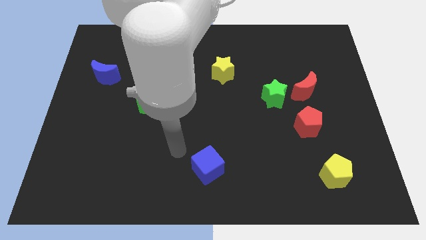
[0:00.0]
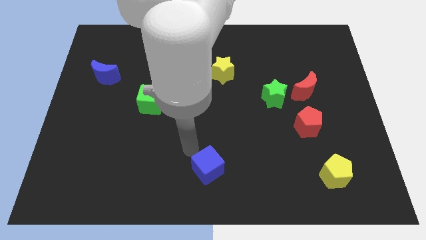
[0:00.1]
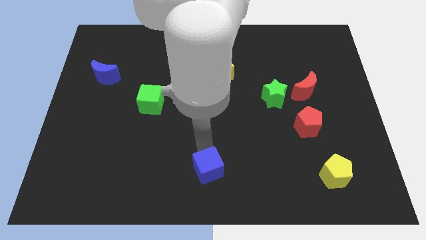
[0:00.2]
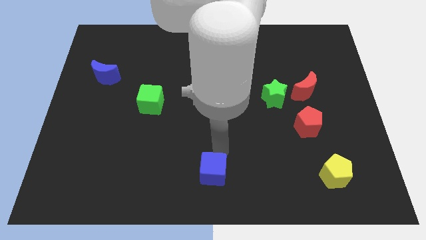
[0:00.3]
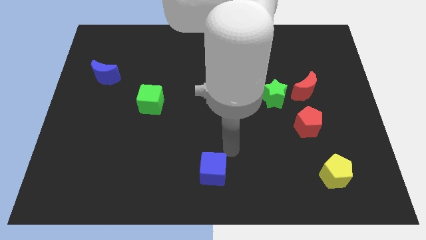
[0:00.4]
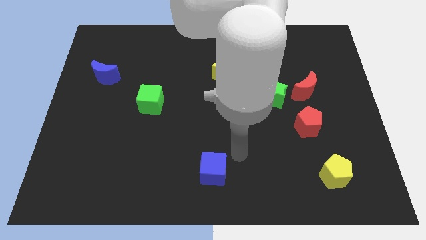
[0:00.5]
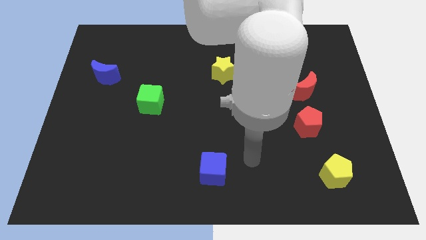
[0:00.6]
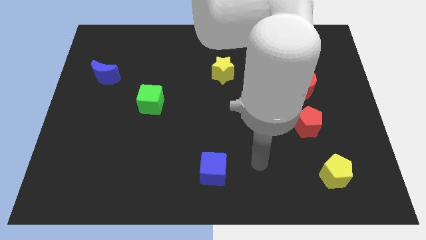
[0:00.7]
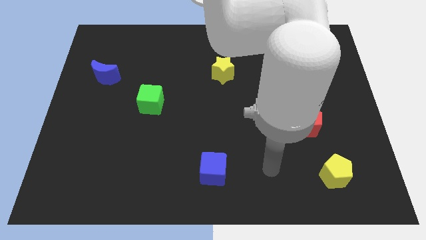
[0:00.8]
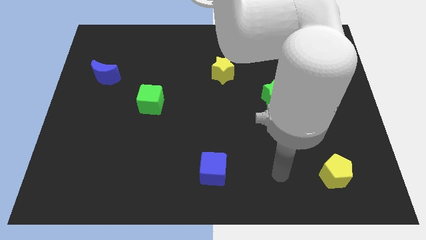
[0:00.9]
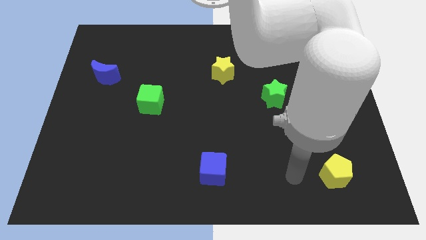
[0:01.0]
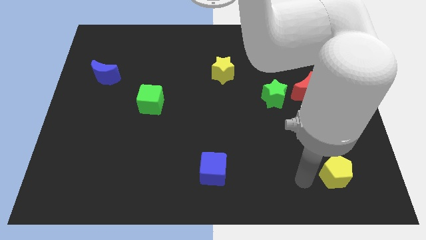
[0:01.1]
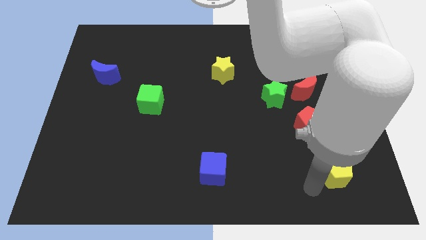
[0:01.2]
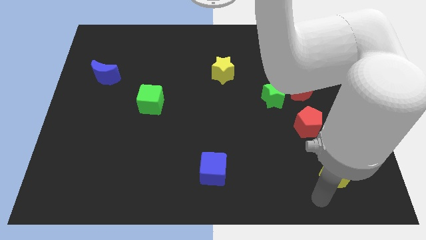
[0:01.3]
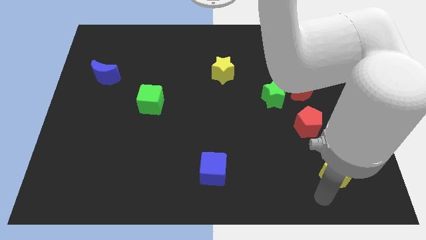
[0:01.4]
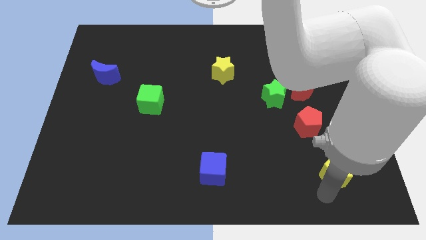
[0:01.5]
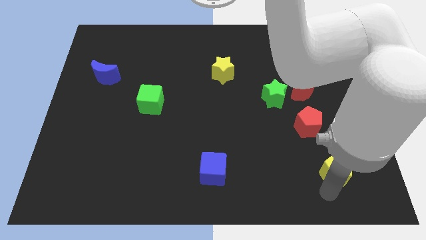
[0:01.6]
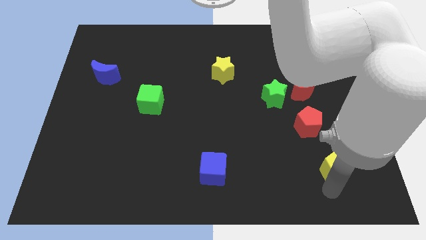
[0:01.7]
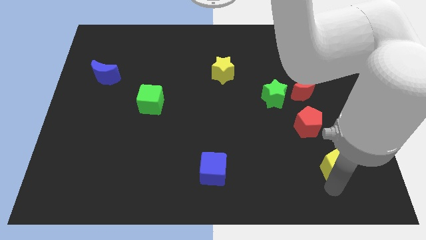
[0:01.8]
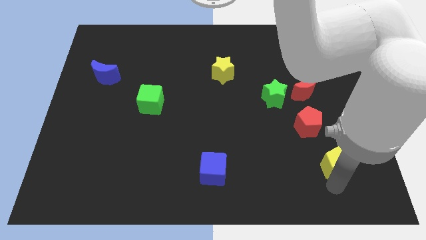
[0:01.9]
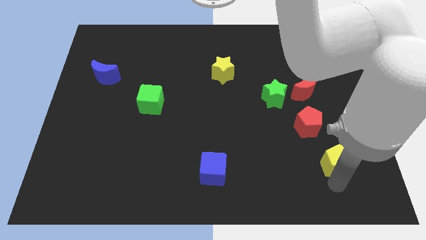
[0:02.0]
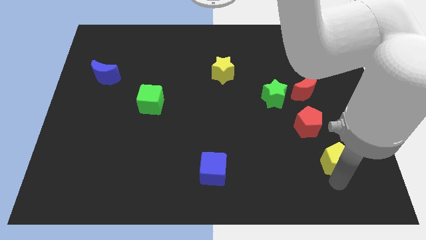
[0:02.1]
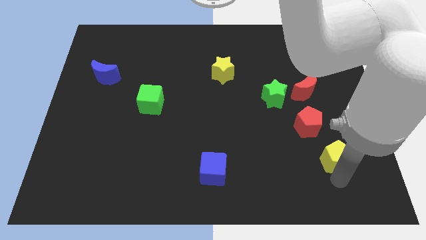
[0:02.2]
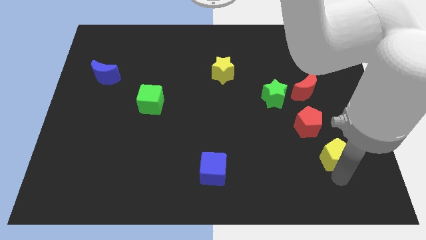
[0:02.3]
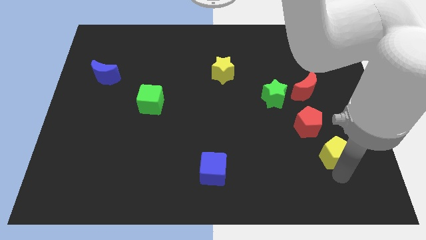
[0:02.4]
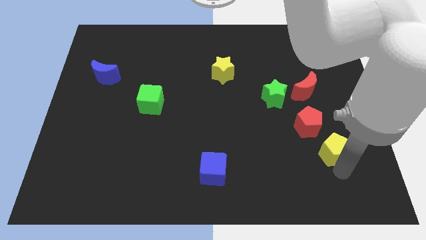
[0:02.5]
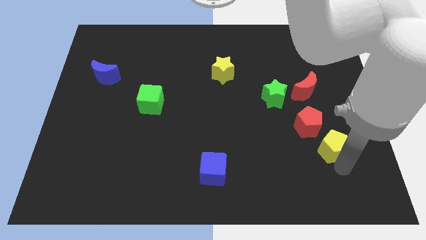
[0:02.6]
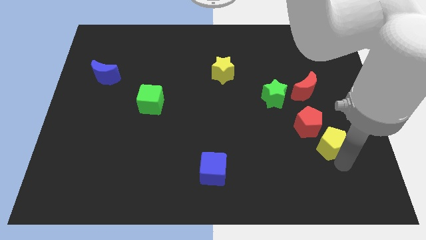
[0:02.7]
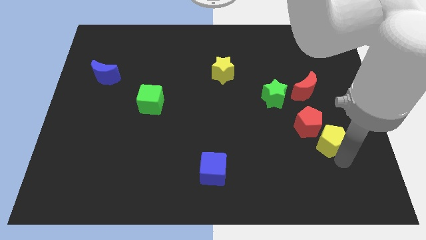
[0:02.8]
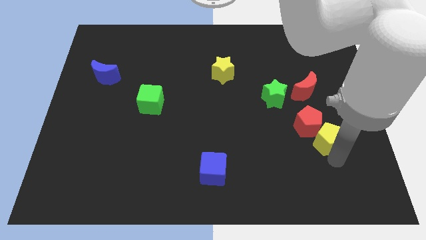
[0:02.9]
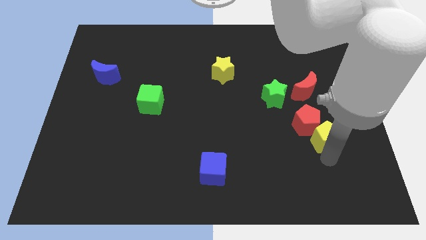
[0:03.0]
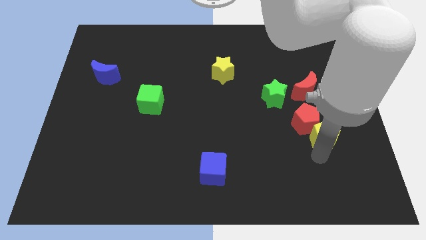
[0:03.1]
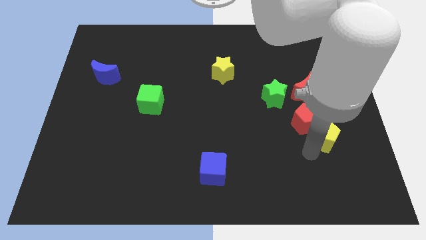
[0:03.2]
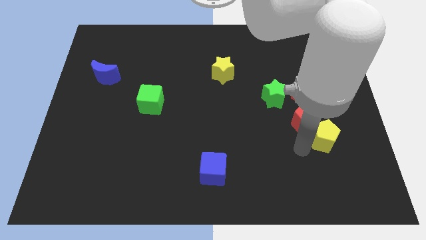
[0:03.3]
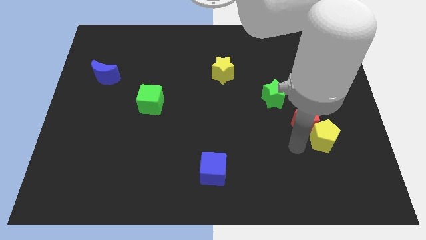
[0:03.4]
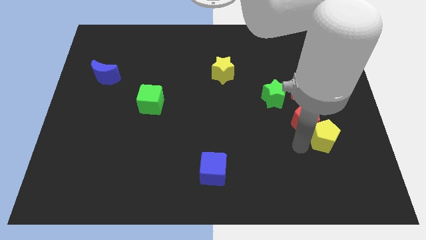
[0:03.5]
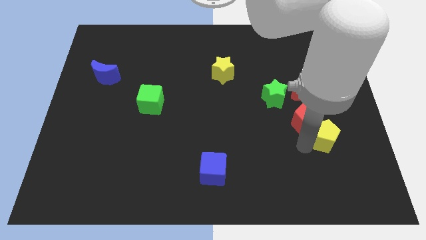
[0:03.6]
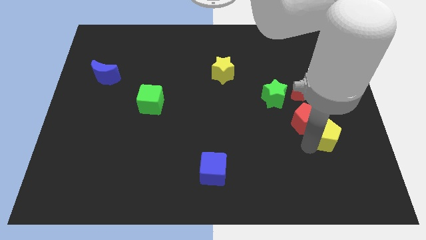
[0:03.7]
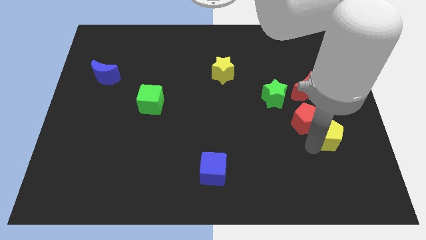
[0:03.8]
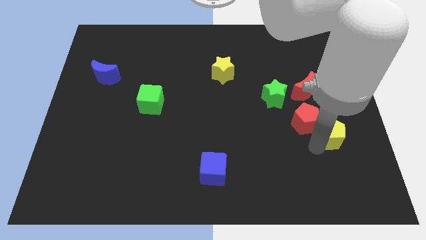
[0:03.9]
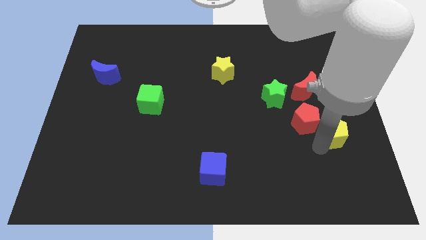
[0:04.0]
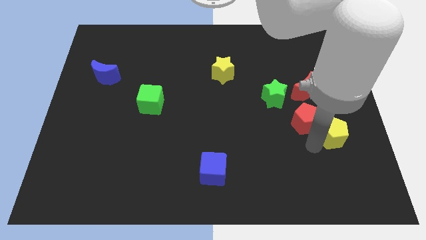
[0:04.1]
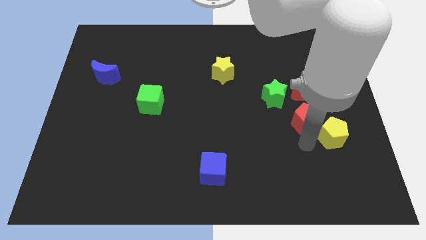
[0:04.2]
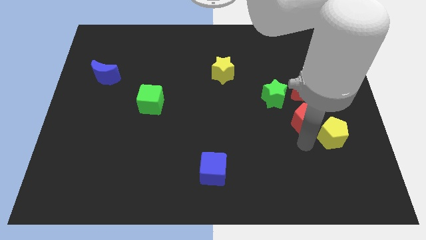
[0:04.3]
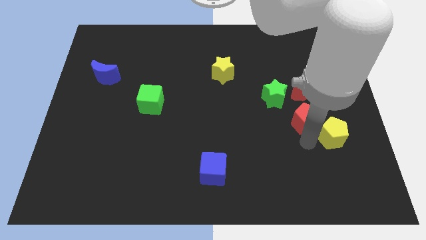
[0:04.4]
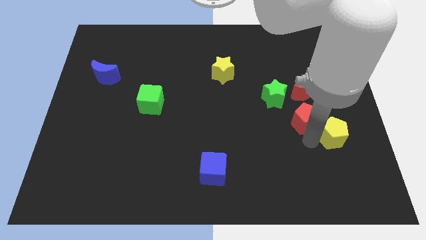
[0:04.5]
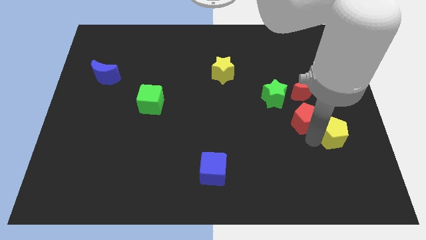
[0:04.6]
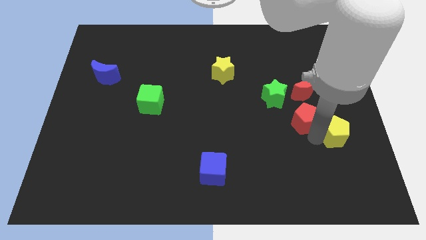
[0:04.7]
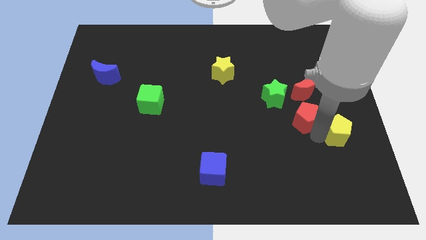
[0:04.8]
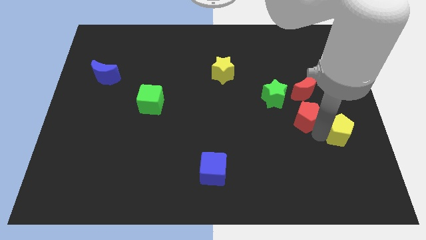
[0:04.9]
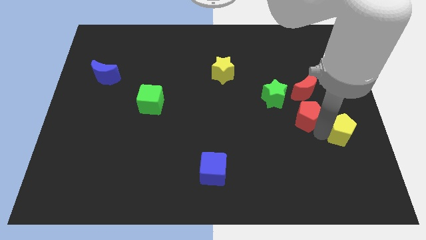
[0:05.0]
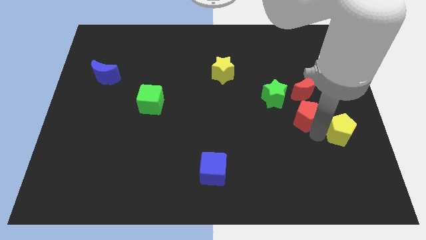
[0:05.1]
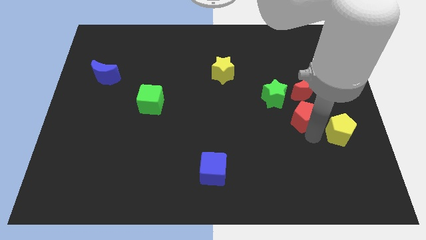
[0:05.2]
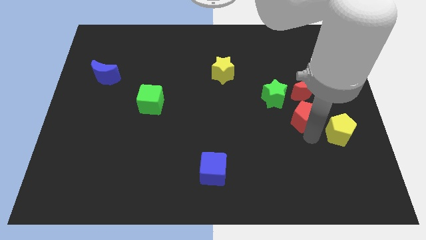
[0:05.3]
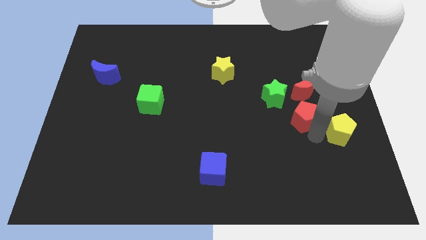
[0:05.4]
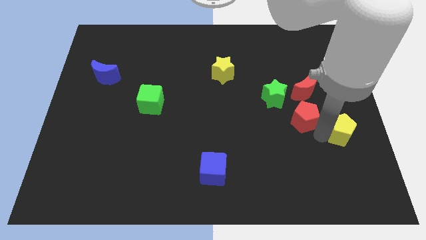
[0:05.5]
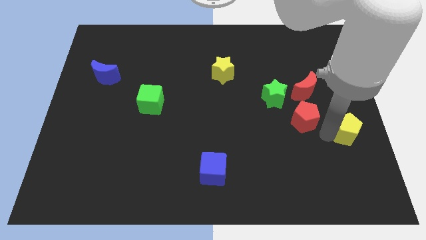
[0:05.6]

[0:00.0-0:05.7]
put the yellow pentagon to the right side

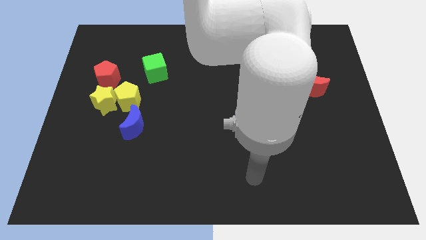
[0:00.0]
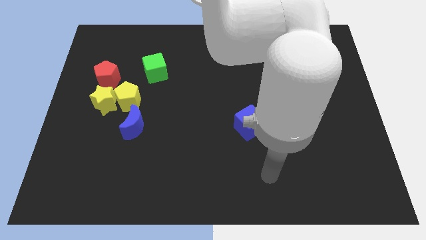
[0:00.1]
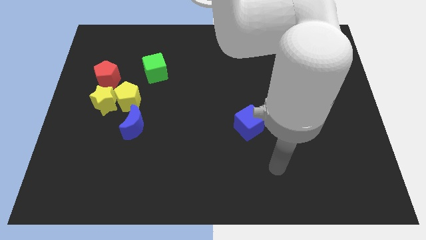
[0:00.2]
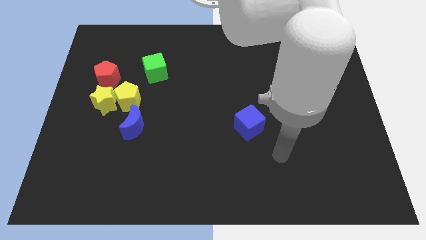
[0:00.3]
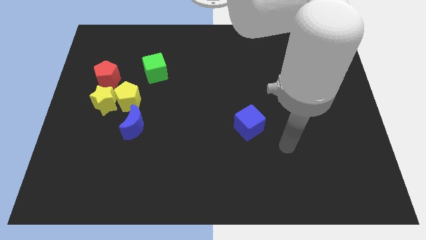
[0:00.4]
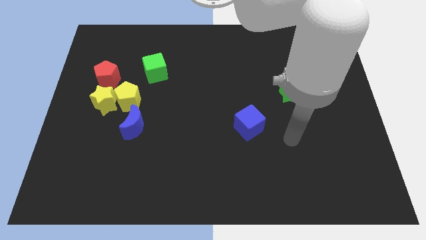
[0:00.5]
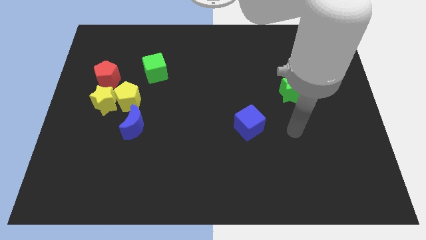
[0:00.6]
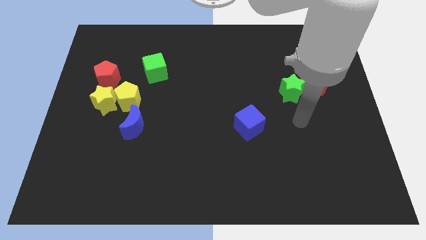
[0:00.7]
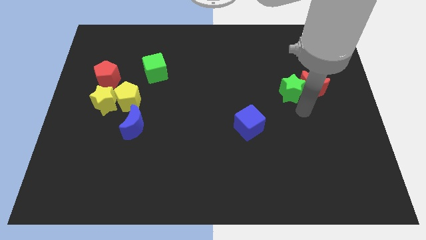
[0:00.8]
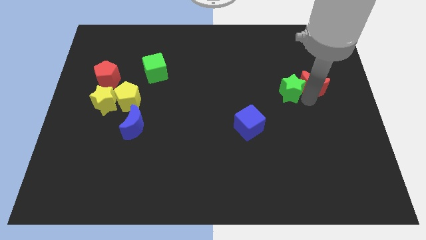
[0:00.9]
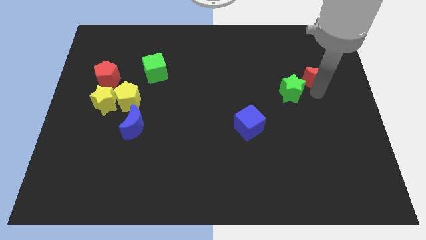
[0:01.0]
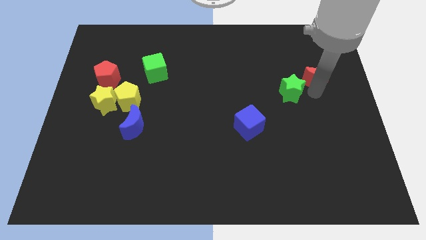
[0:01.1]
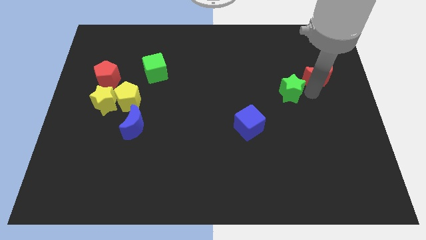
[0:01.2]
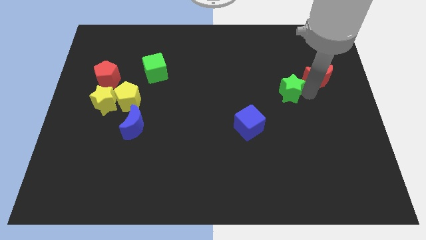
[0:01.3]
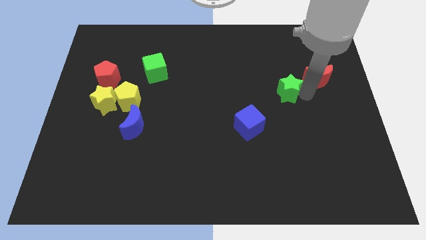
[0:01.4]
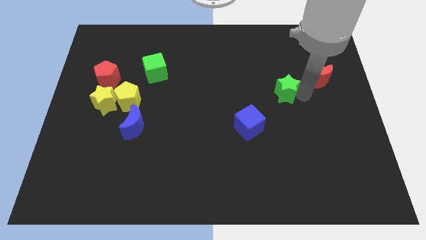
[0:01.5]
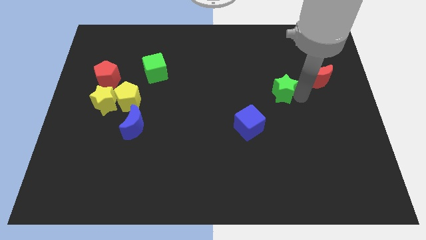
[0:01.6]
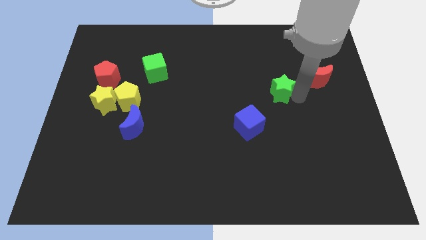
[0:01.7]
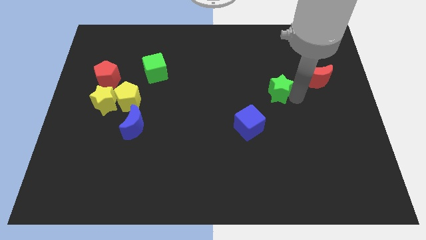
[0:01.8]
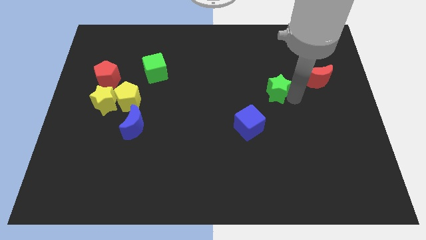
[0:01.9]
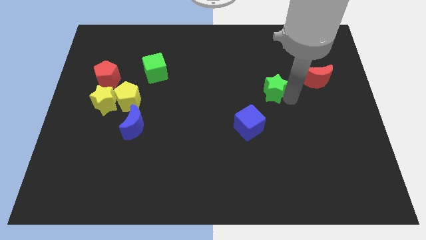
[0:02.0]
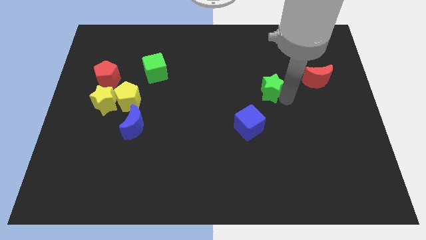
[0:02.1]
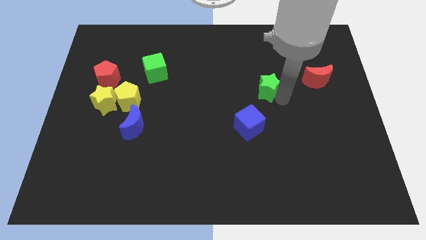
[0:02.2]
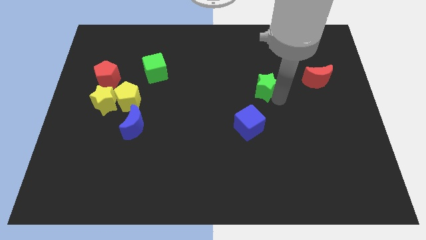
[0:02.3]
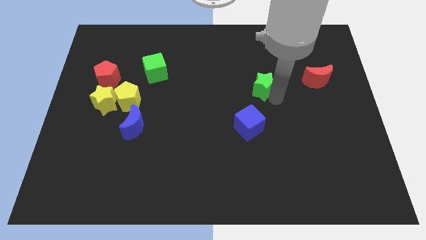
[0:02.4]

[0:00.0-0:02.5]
move the green star to the center of the board
